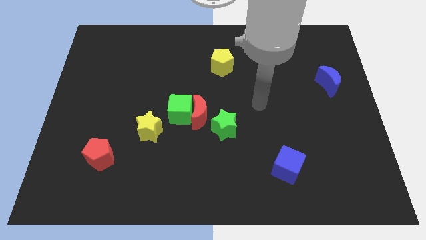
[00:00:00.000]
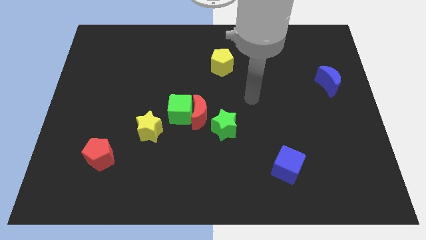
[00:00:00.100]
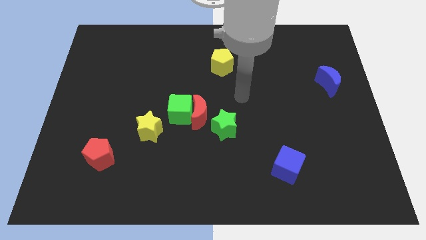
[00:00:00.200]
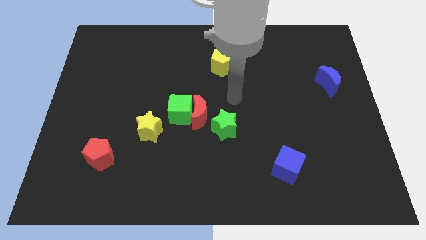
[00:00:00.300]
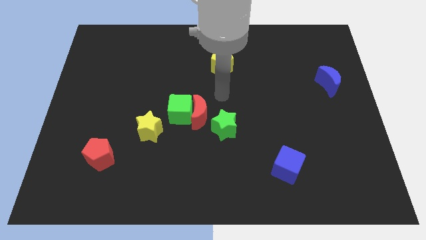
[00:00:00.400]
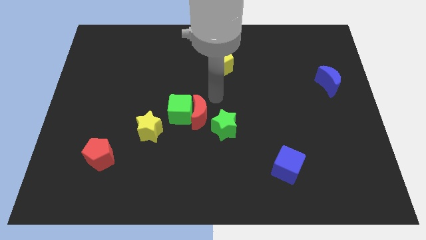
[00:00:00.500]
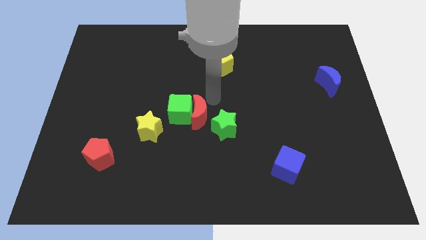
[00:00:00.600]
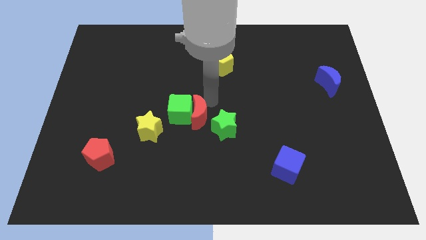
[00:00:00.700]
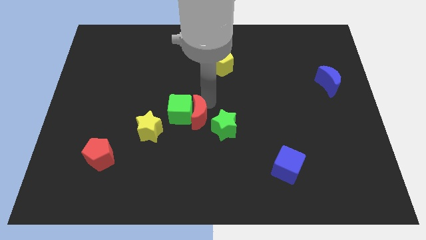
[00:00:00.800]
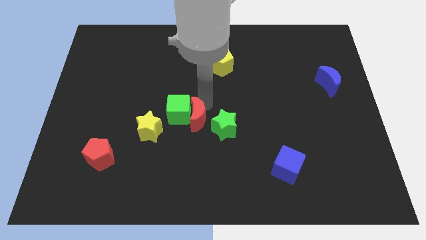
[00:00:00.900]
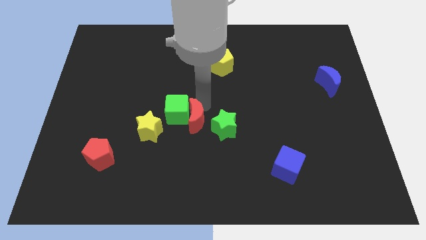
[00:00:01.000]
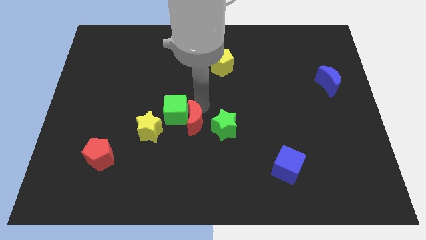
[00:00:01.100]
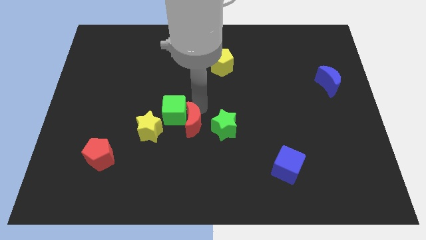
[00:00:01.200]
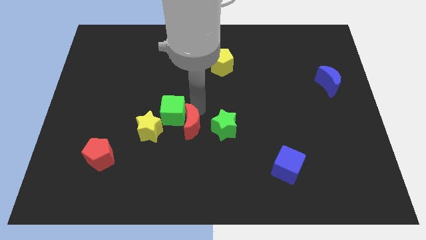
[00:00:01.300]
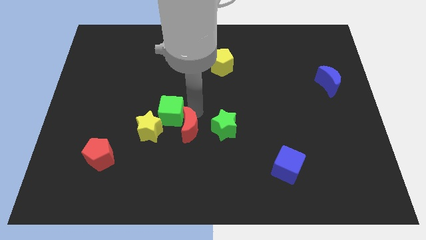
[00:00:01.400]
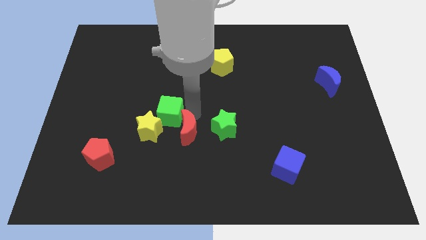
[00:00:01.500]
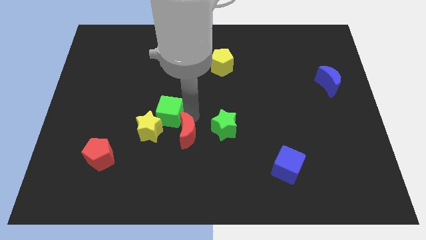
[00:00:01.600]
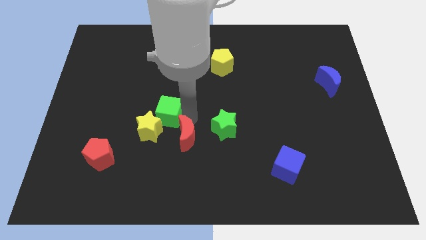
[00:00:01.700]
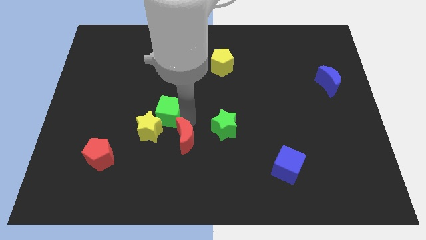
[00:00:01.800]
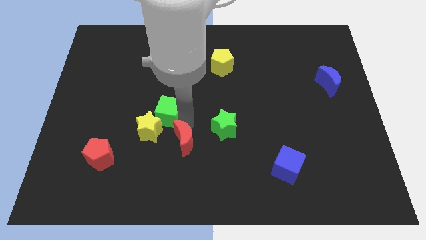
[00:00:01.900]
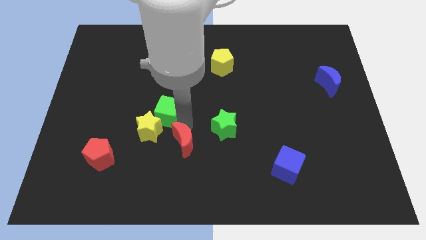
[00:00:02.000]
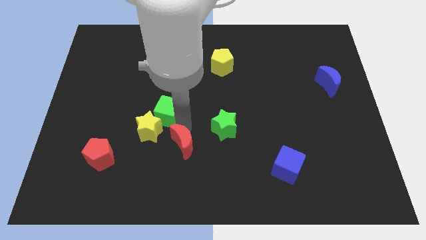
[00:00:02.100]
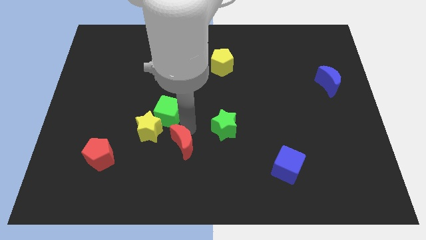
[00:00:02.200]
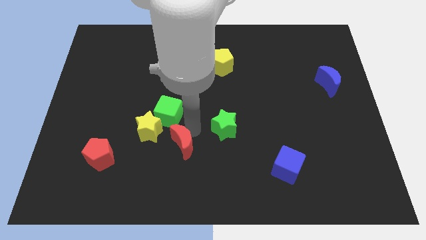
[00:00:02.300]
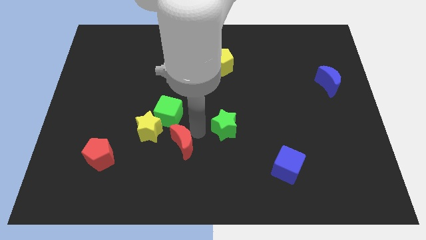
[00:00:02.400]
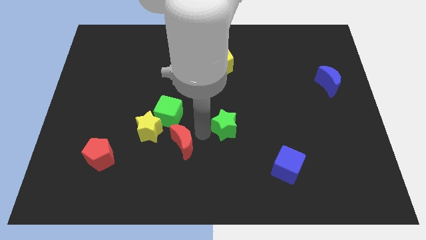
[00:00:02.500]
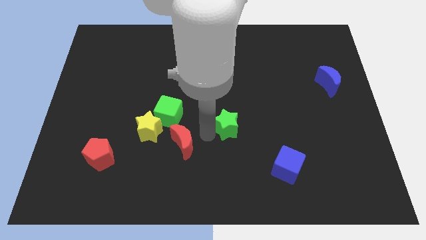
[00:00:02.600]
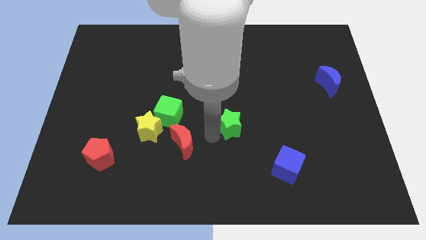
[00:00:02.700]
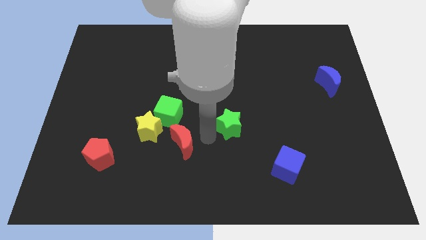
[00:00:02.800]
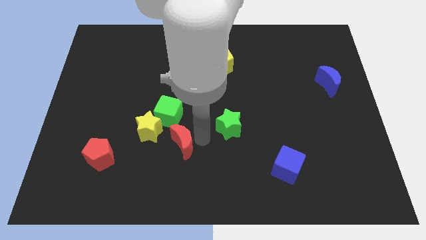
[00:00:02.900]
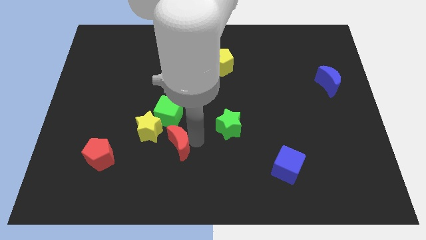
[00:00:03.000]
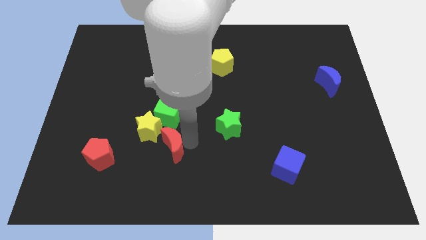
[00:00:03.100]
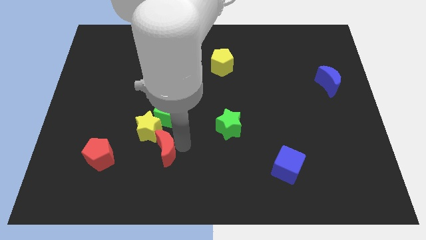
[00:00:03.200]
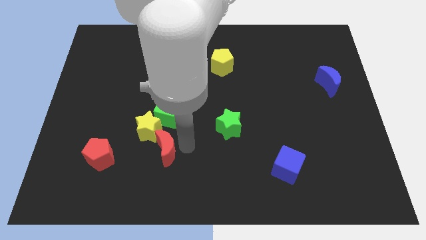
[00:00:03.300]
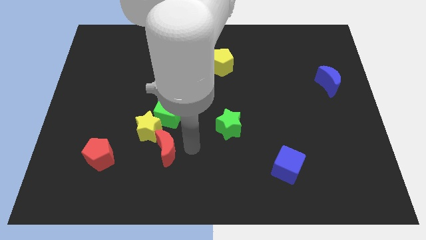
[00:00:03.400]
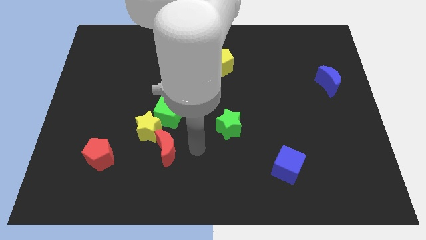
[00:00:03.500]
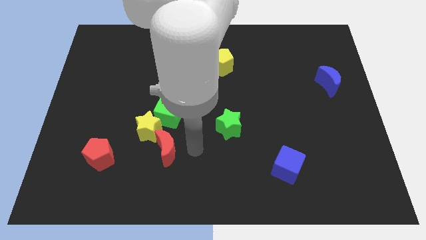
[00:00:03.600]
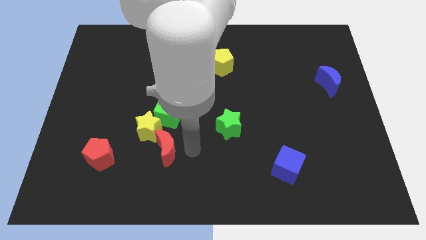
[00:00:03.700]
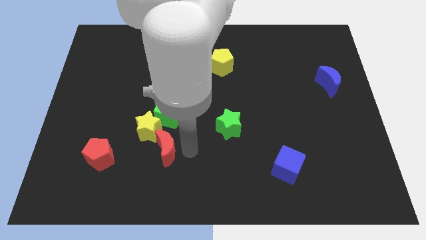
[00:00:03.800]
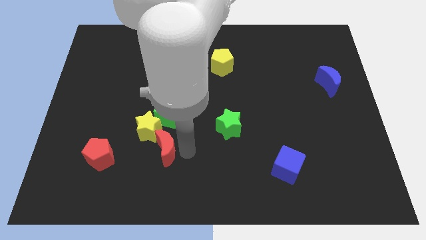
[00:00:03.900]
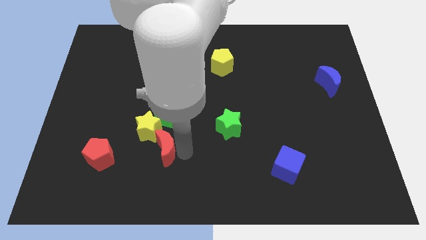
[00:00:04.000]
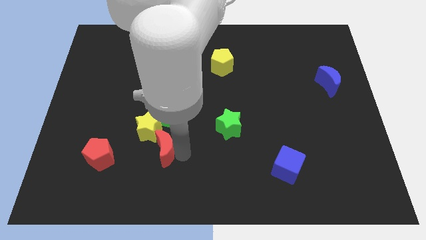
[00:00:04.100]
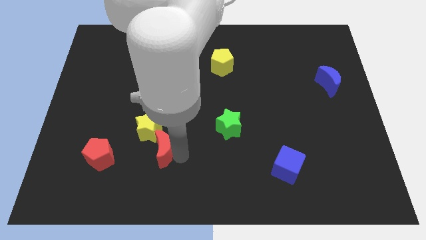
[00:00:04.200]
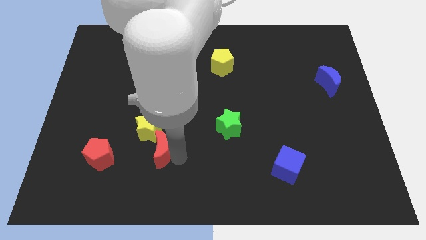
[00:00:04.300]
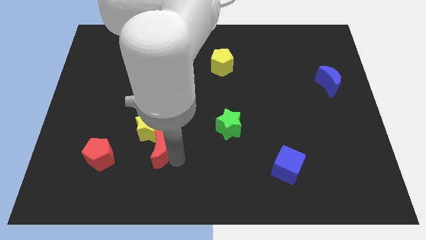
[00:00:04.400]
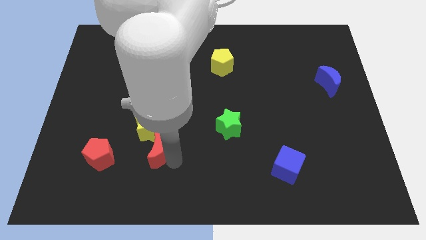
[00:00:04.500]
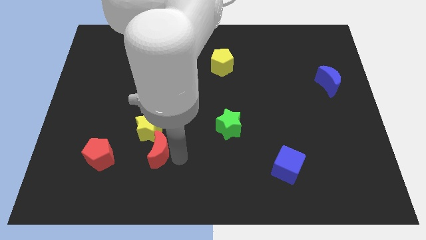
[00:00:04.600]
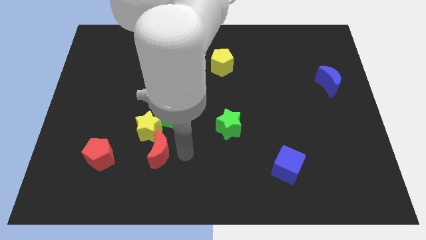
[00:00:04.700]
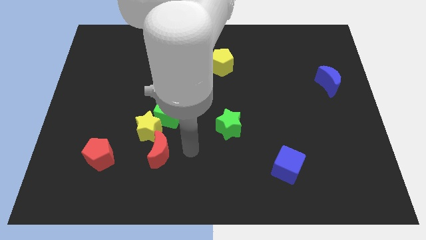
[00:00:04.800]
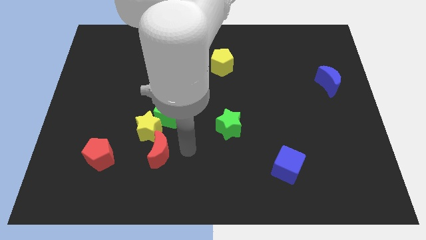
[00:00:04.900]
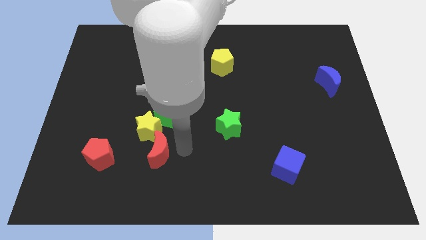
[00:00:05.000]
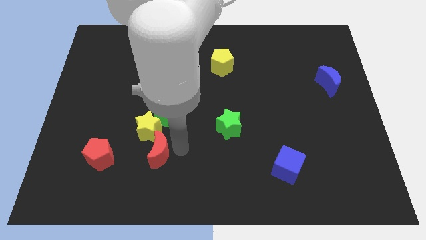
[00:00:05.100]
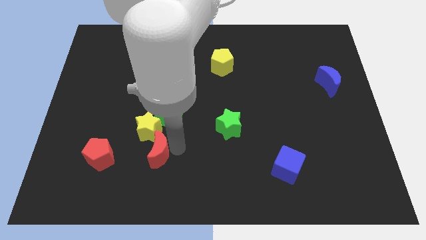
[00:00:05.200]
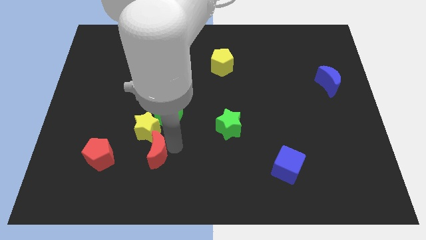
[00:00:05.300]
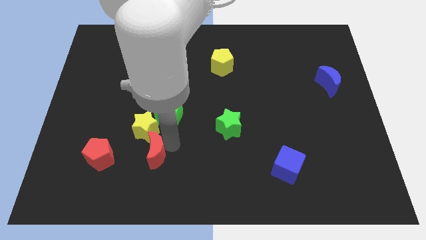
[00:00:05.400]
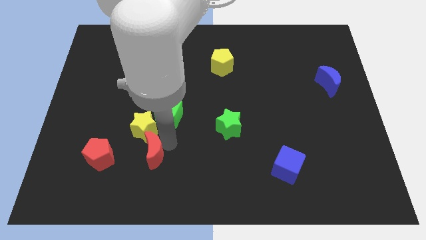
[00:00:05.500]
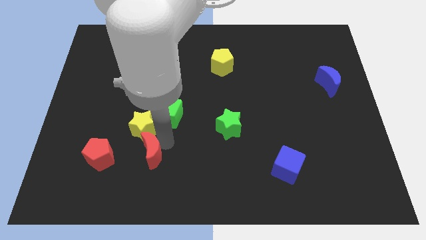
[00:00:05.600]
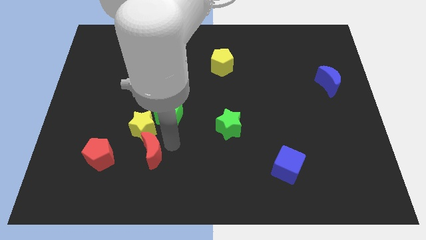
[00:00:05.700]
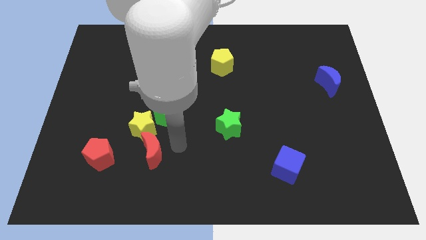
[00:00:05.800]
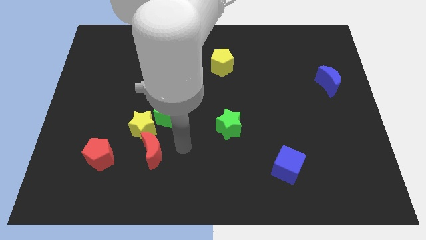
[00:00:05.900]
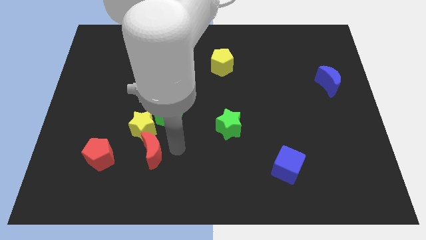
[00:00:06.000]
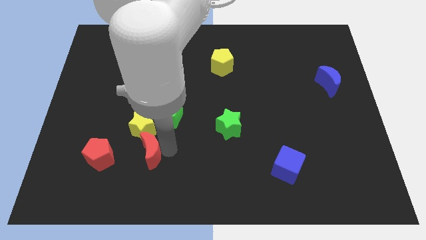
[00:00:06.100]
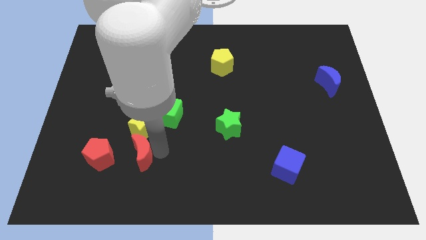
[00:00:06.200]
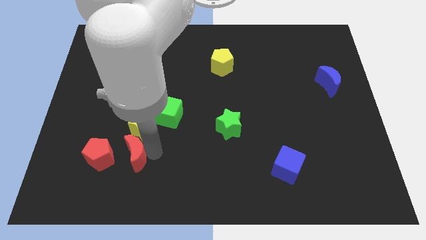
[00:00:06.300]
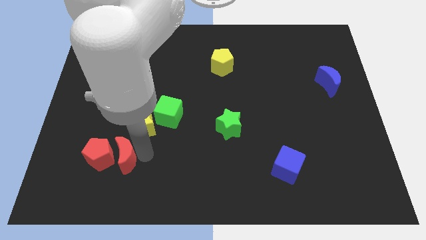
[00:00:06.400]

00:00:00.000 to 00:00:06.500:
put the red moon to the red pentagon
